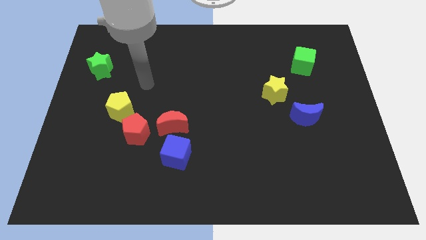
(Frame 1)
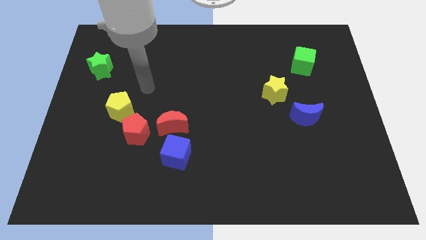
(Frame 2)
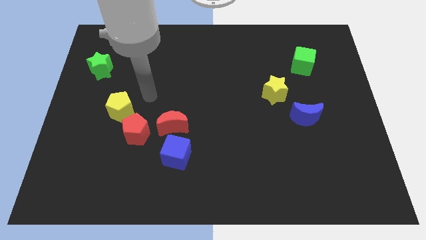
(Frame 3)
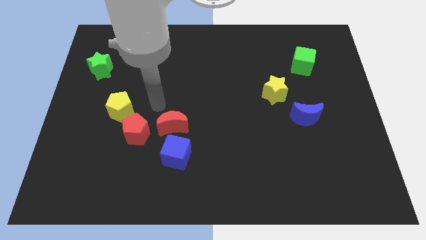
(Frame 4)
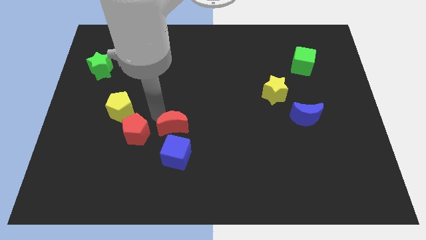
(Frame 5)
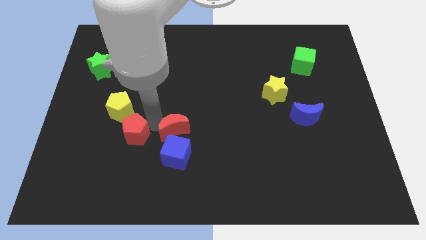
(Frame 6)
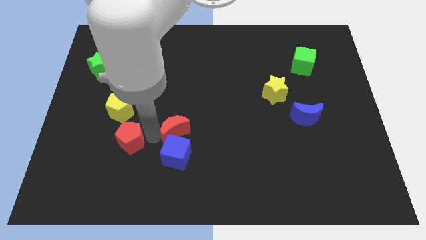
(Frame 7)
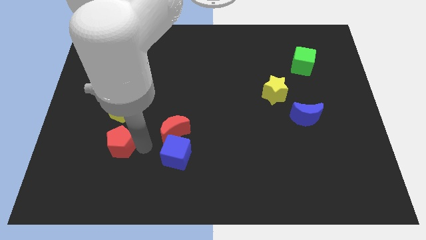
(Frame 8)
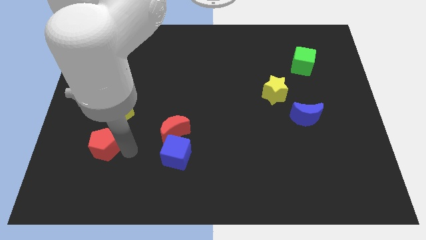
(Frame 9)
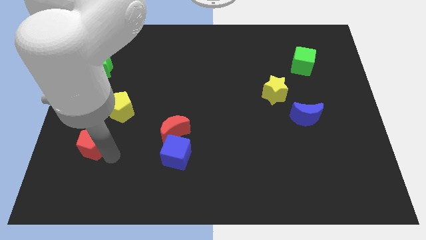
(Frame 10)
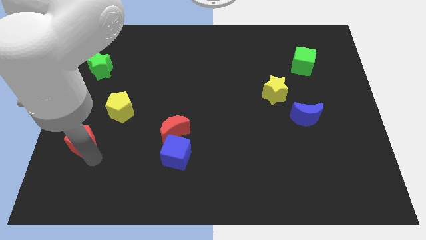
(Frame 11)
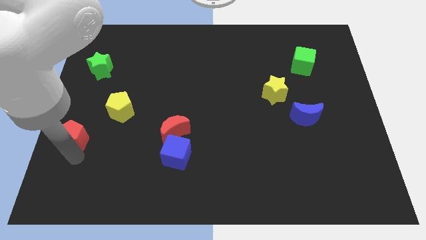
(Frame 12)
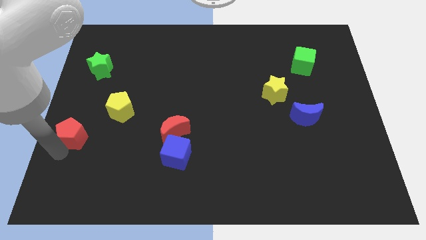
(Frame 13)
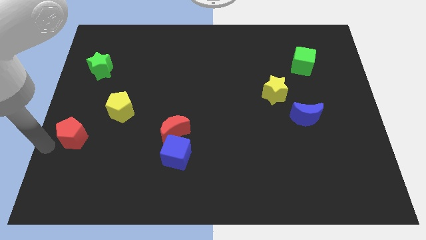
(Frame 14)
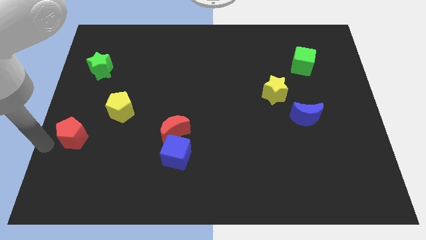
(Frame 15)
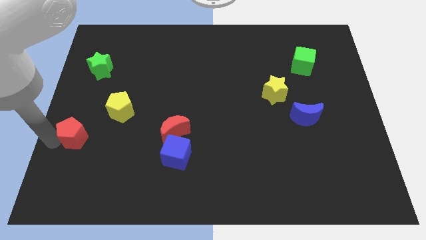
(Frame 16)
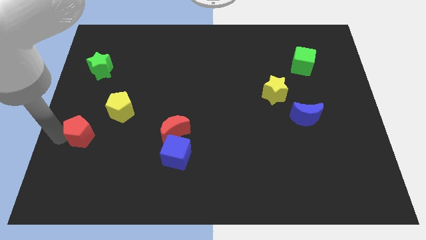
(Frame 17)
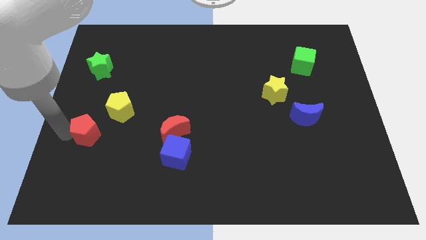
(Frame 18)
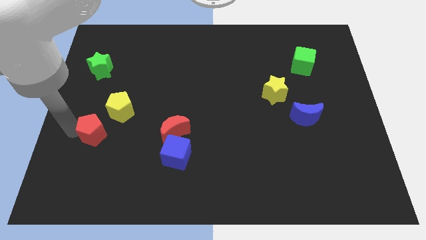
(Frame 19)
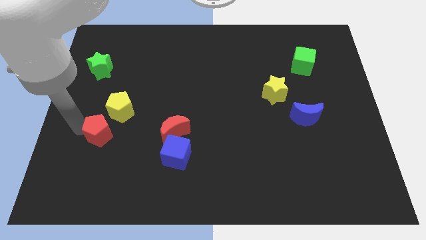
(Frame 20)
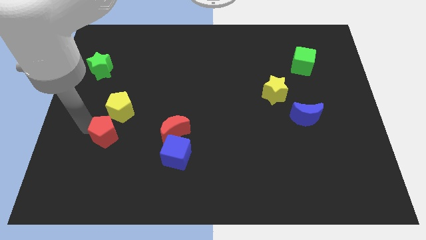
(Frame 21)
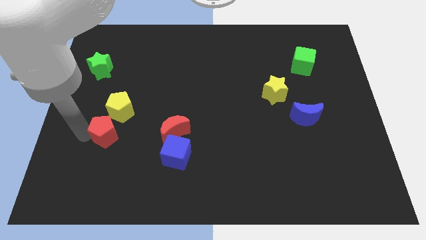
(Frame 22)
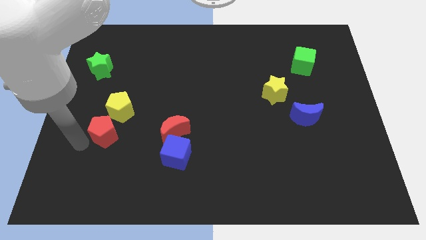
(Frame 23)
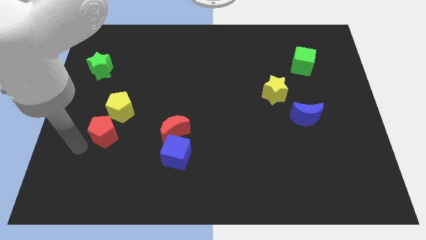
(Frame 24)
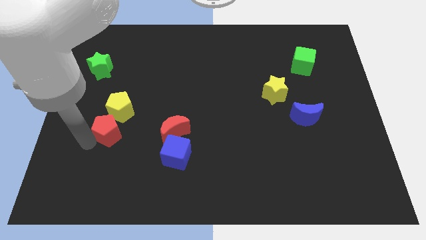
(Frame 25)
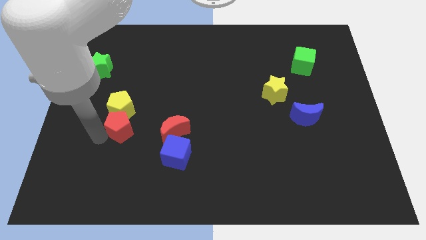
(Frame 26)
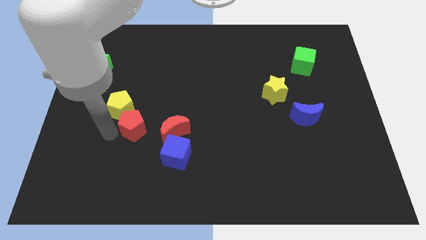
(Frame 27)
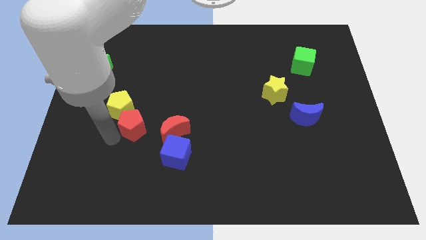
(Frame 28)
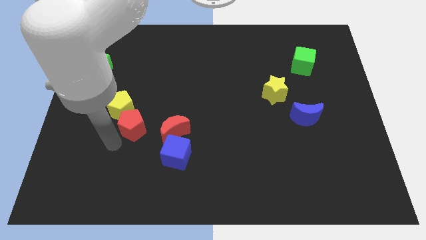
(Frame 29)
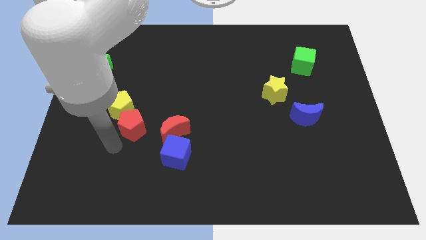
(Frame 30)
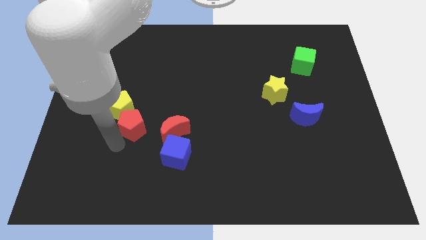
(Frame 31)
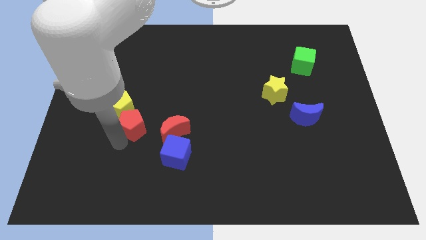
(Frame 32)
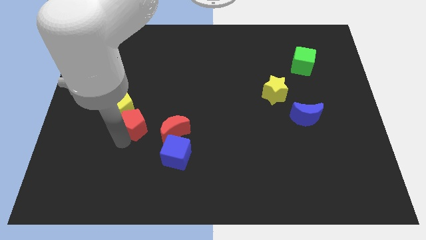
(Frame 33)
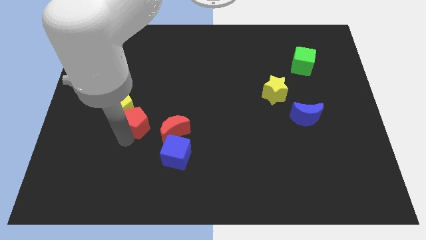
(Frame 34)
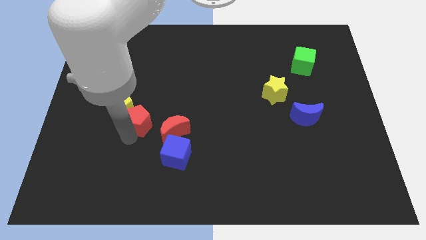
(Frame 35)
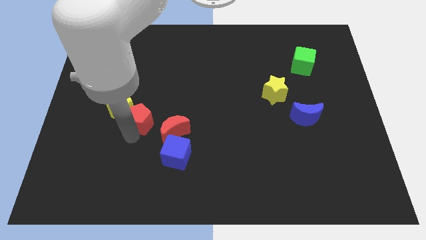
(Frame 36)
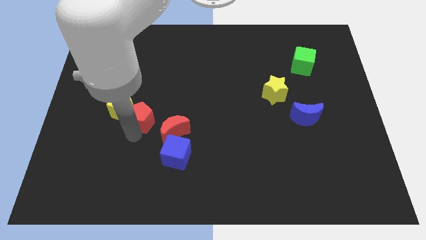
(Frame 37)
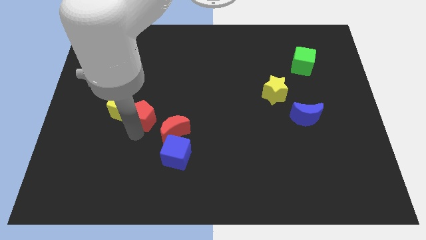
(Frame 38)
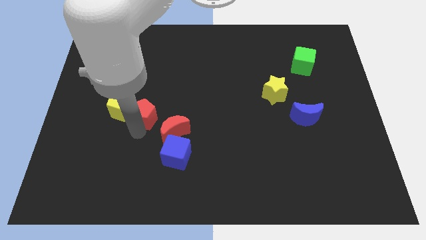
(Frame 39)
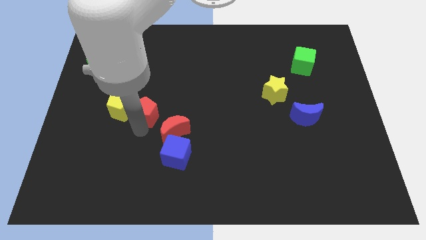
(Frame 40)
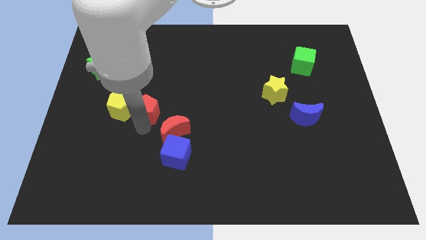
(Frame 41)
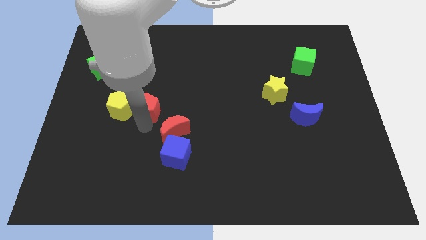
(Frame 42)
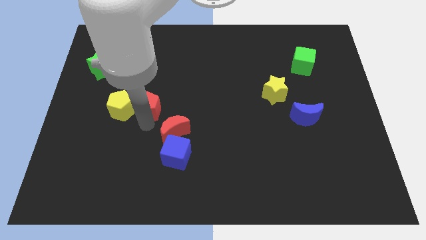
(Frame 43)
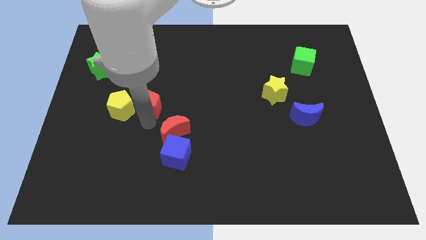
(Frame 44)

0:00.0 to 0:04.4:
slightly move the red pentagon up

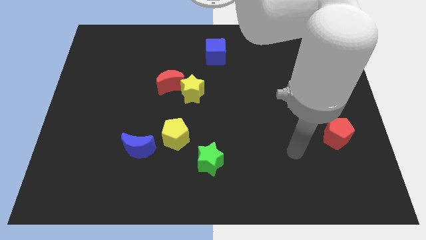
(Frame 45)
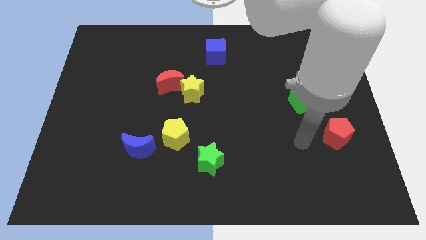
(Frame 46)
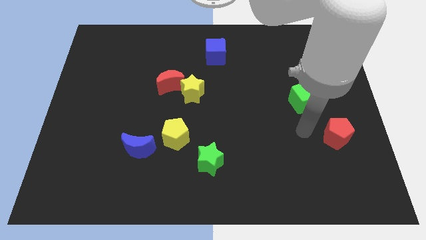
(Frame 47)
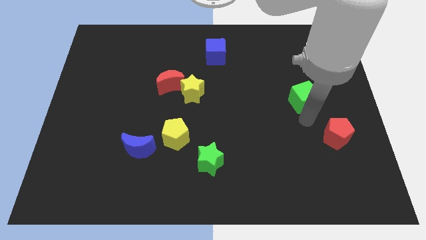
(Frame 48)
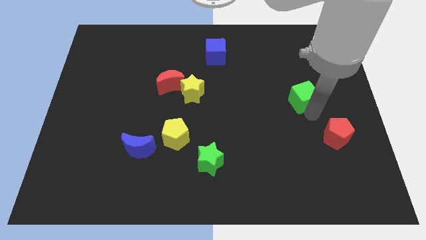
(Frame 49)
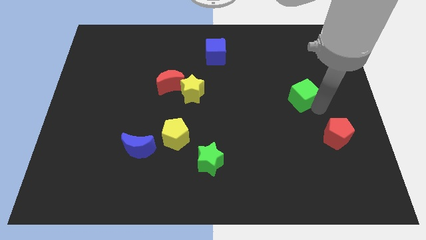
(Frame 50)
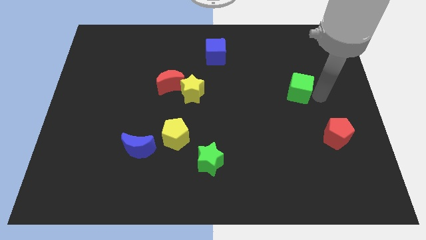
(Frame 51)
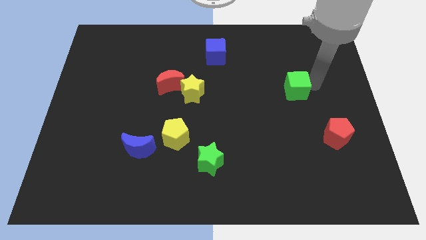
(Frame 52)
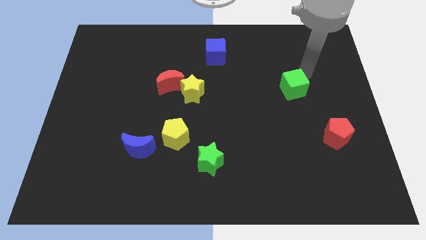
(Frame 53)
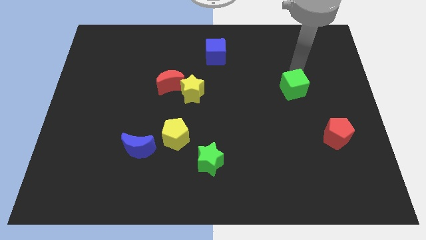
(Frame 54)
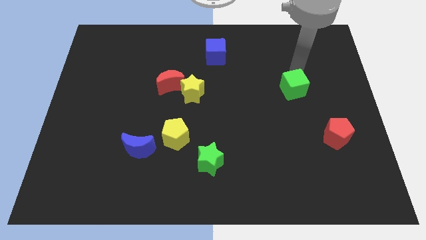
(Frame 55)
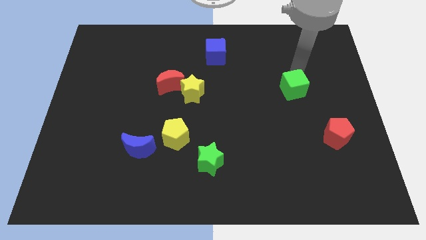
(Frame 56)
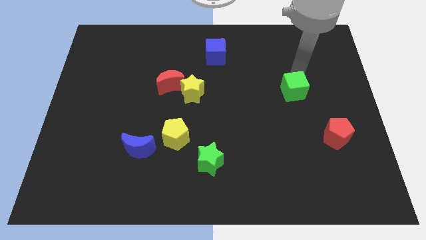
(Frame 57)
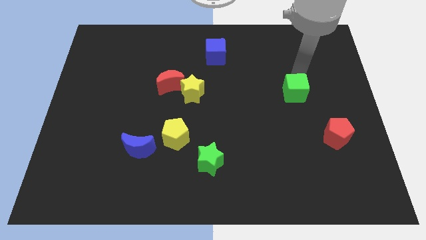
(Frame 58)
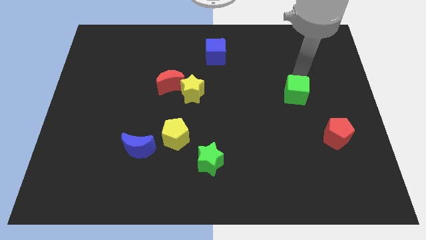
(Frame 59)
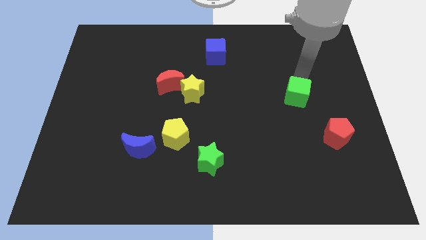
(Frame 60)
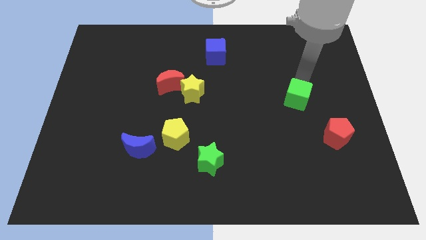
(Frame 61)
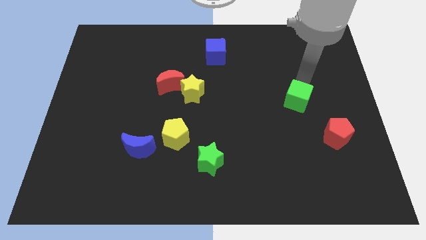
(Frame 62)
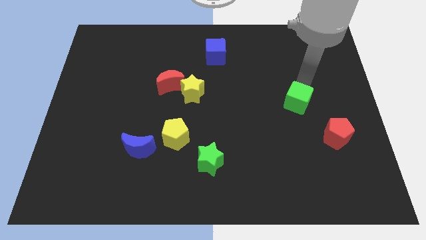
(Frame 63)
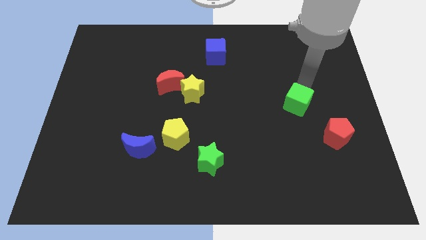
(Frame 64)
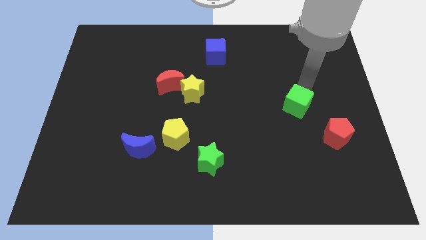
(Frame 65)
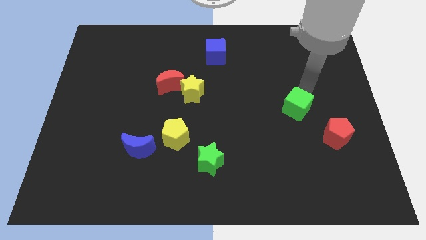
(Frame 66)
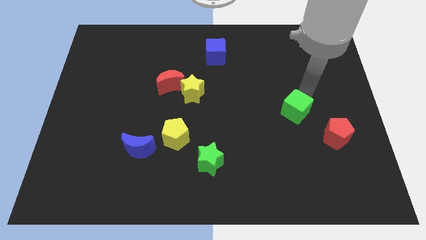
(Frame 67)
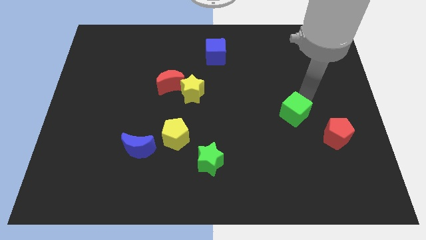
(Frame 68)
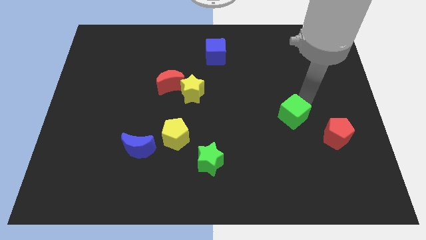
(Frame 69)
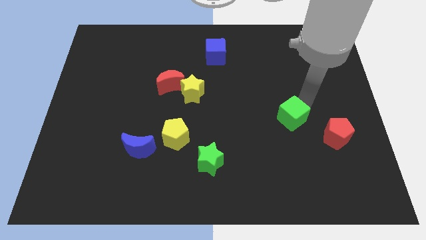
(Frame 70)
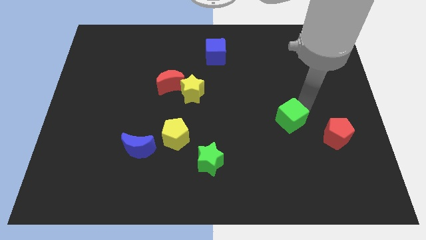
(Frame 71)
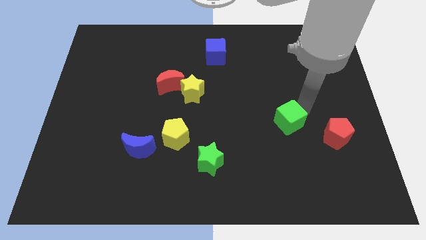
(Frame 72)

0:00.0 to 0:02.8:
slightly push the green cube down and to the left

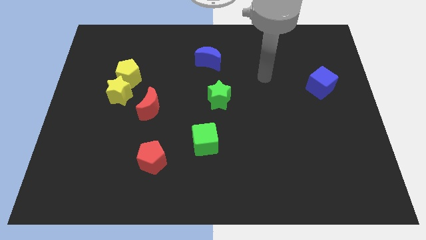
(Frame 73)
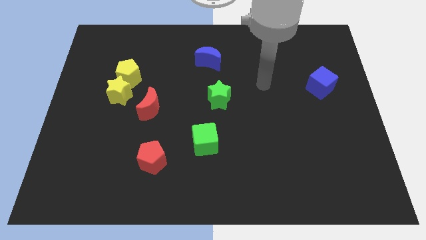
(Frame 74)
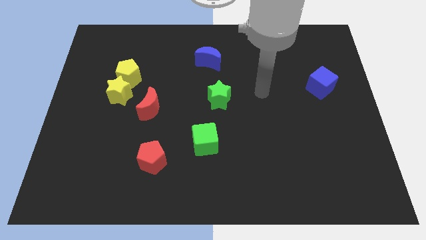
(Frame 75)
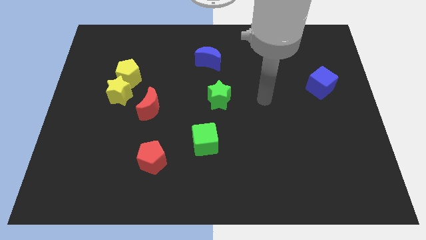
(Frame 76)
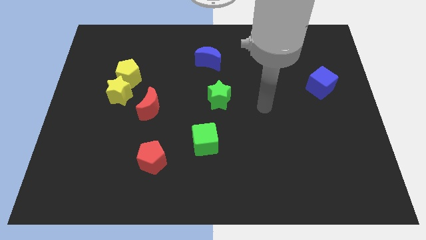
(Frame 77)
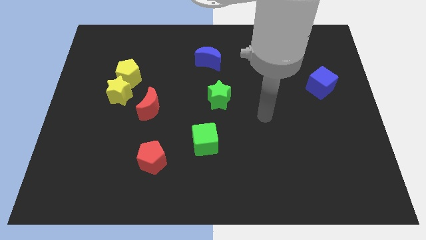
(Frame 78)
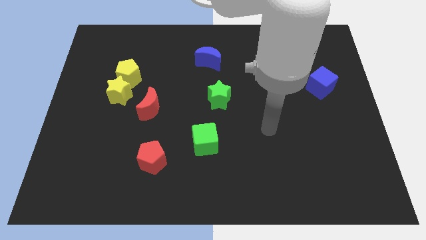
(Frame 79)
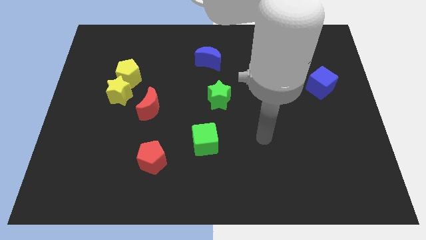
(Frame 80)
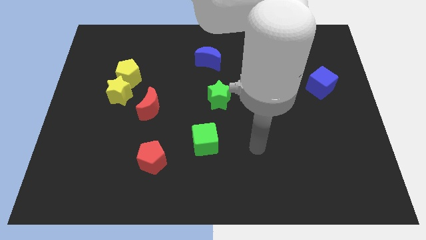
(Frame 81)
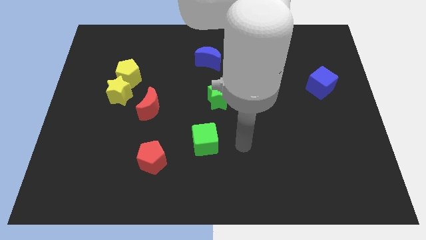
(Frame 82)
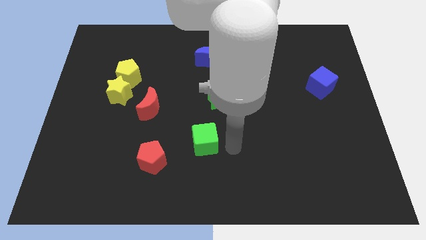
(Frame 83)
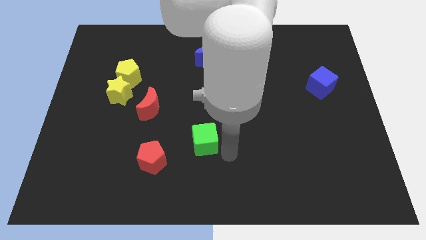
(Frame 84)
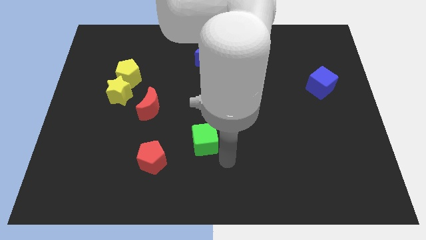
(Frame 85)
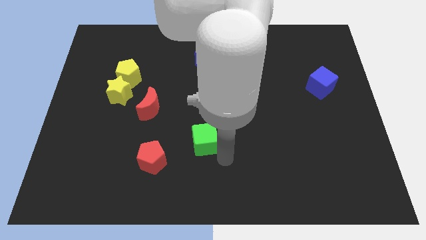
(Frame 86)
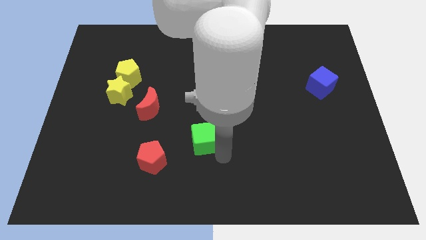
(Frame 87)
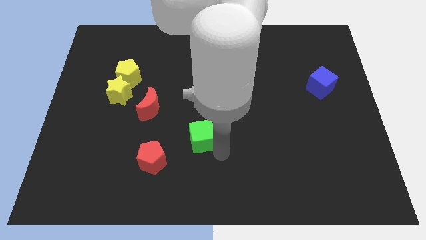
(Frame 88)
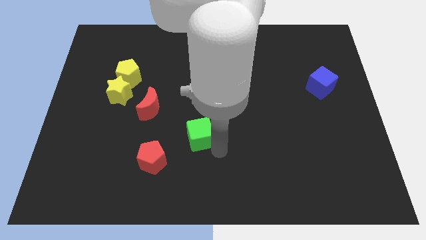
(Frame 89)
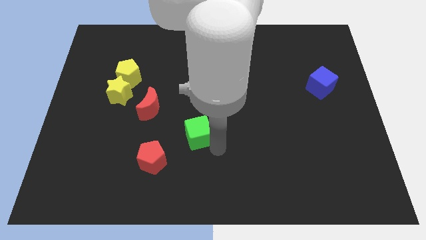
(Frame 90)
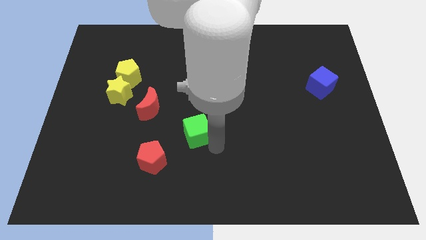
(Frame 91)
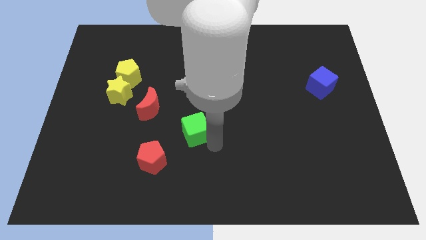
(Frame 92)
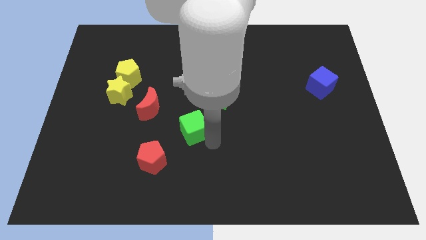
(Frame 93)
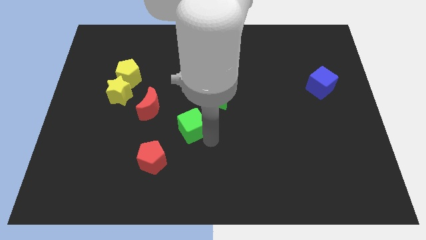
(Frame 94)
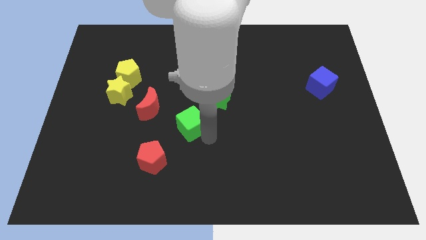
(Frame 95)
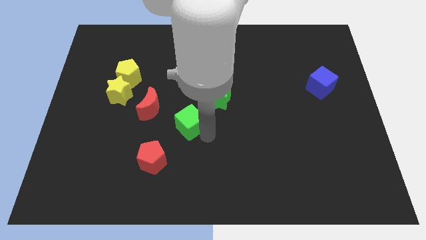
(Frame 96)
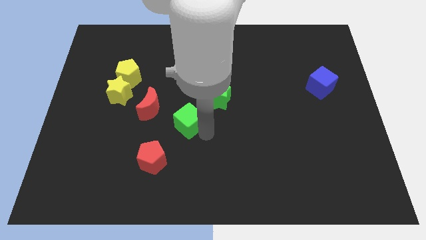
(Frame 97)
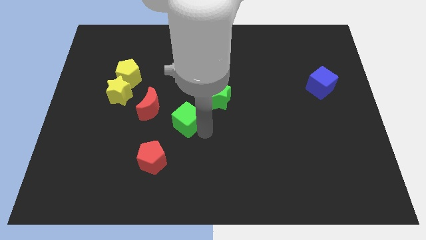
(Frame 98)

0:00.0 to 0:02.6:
move the green cube diagonally upwards and to the left a little
